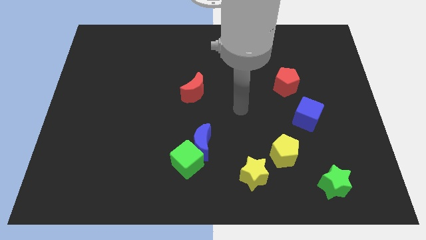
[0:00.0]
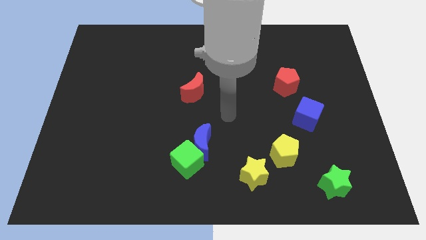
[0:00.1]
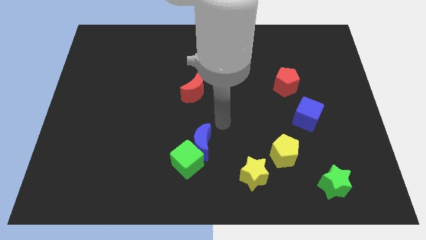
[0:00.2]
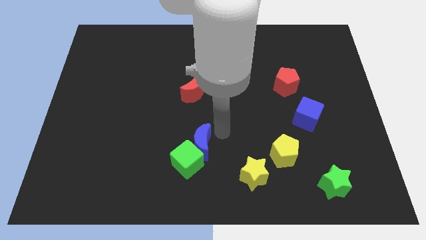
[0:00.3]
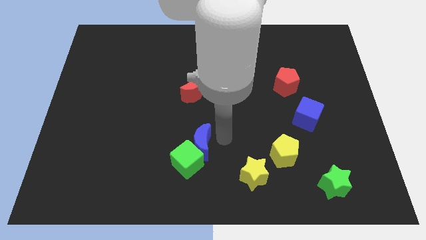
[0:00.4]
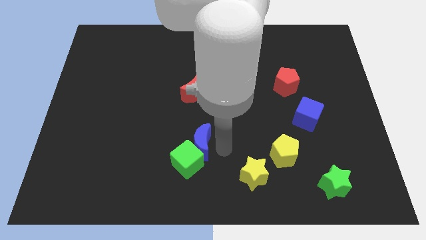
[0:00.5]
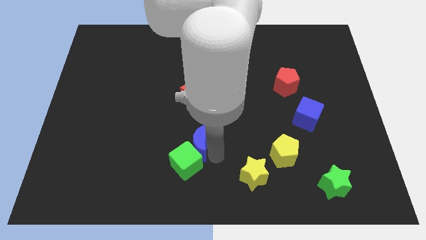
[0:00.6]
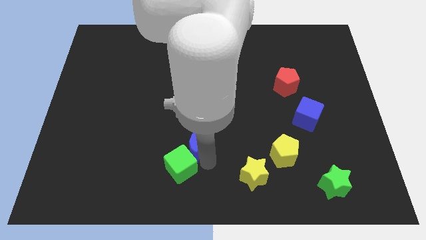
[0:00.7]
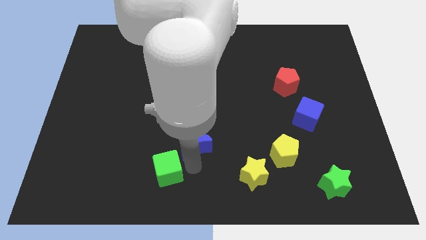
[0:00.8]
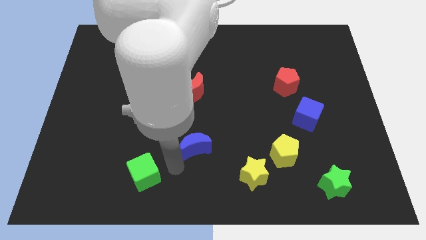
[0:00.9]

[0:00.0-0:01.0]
separate the blue moon from the green cube

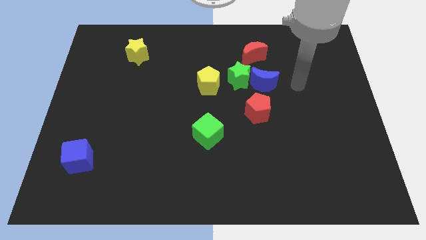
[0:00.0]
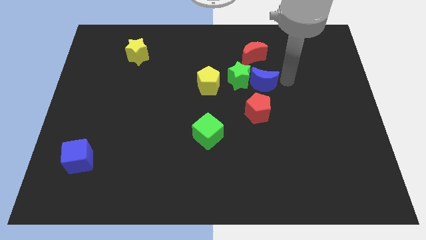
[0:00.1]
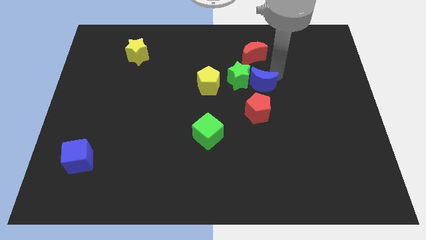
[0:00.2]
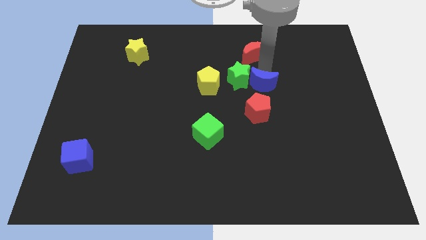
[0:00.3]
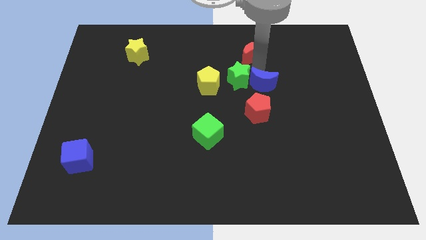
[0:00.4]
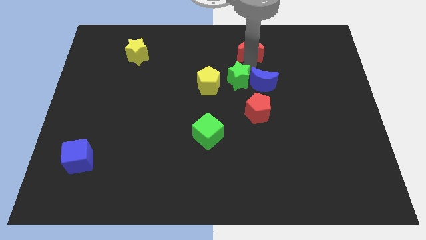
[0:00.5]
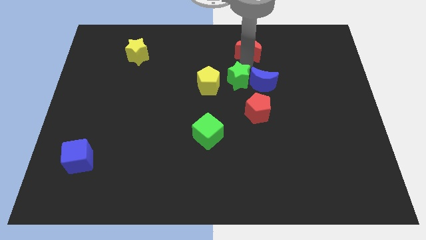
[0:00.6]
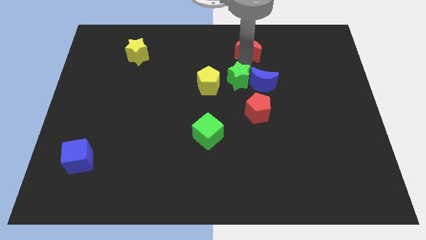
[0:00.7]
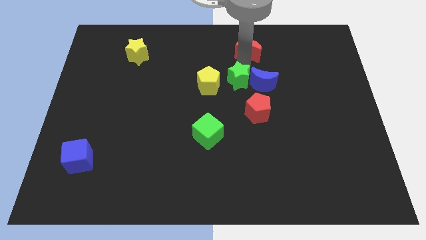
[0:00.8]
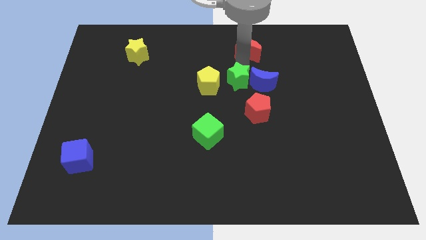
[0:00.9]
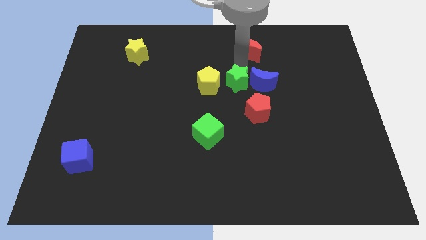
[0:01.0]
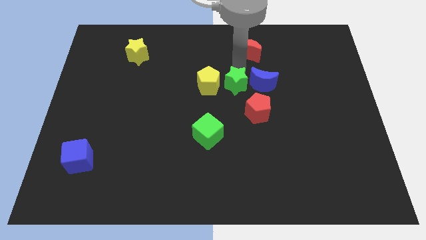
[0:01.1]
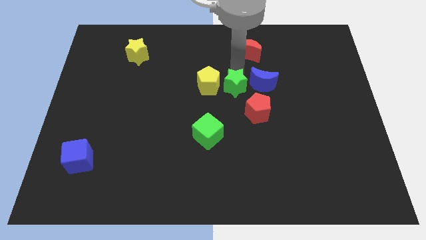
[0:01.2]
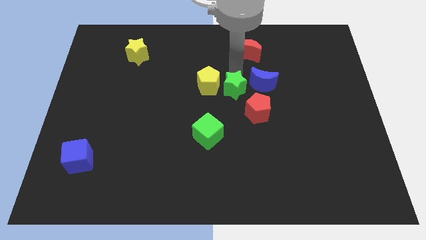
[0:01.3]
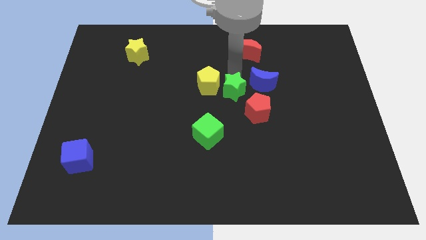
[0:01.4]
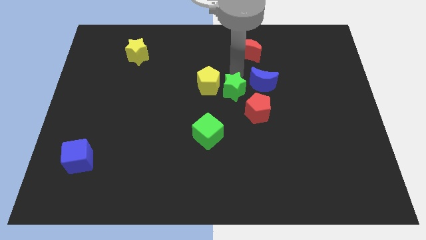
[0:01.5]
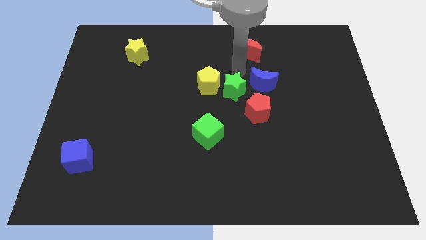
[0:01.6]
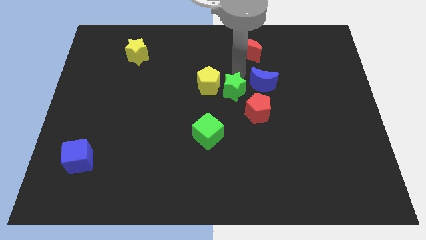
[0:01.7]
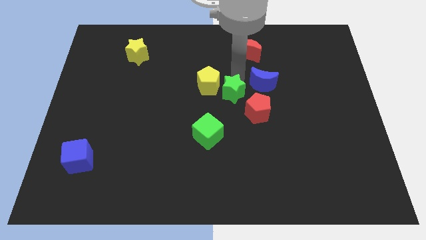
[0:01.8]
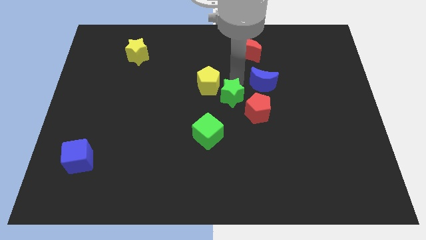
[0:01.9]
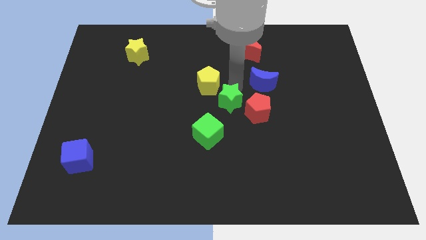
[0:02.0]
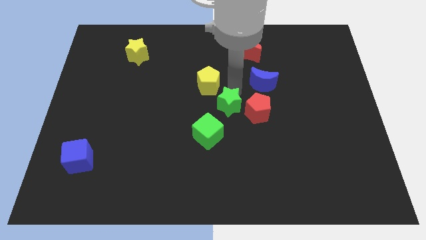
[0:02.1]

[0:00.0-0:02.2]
pull the green star apart from the blue moon, yellow pentagon, and red moon

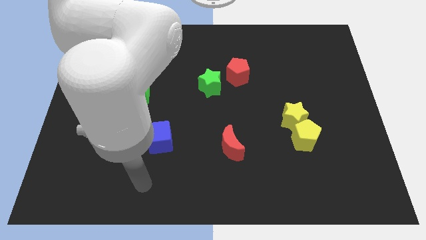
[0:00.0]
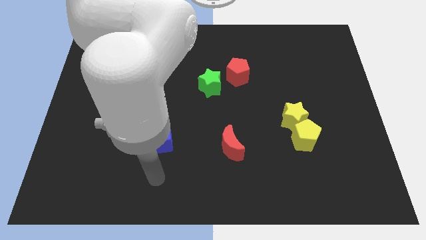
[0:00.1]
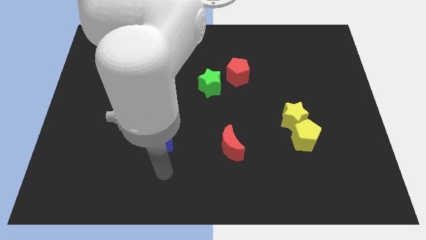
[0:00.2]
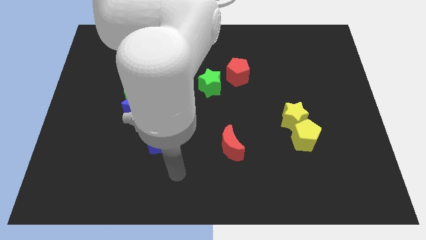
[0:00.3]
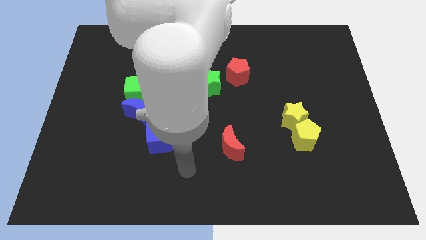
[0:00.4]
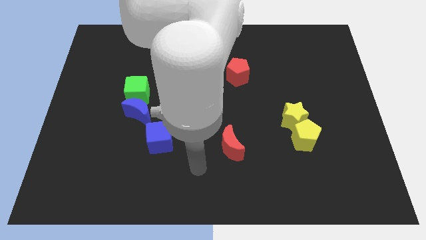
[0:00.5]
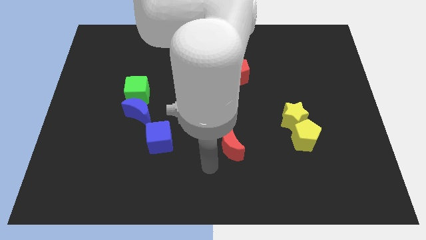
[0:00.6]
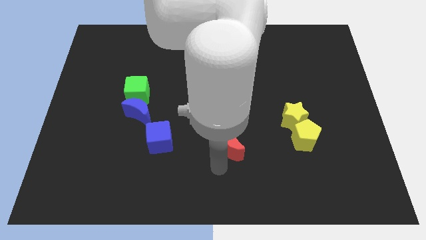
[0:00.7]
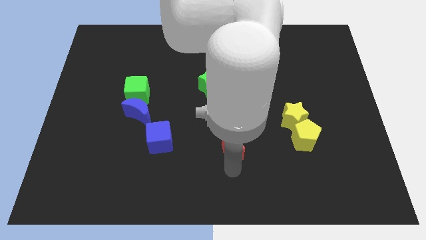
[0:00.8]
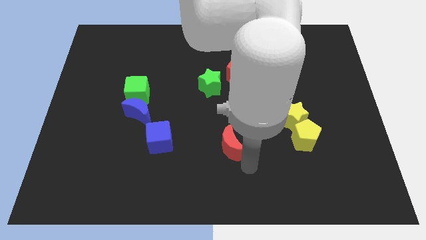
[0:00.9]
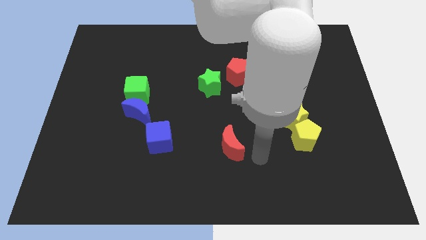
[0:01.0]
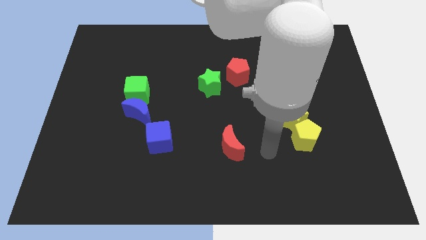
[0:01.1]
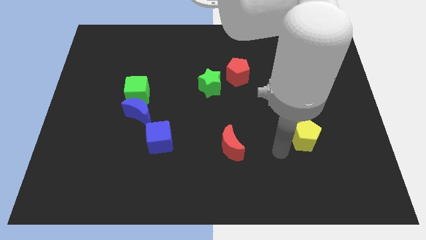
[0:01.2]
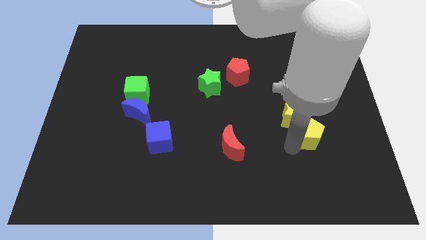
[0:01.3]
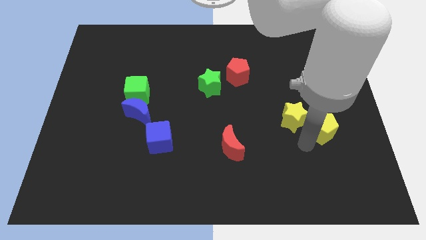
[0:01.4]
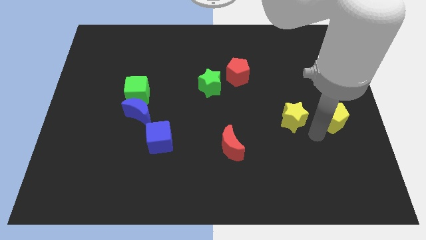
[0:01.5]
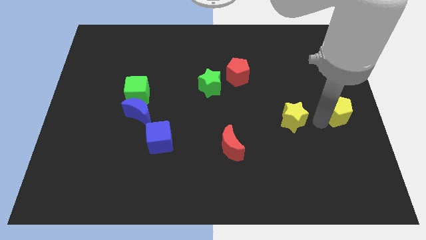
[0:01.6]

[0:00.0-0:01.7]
move the yellow star away from the yellow pentagon

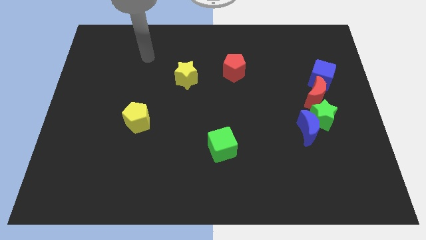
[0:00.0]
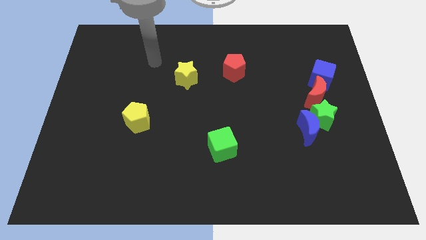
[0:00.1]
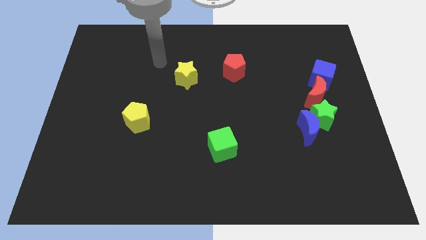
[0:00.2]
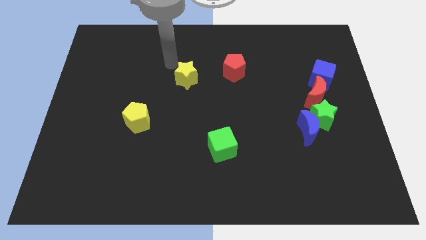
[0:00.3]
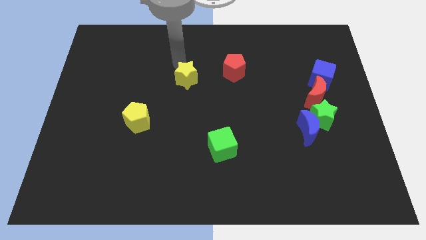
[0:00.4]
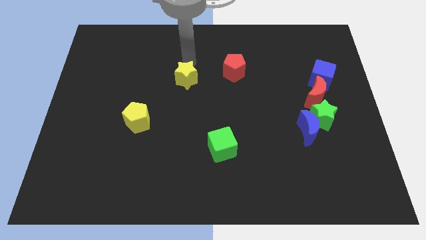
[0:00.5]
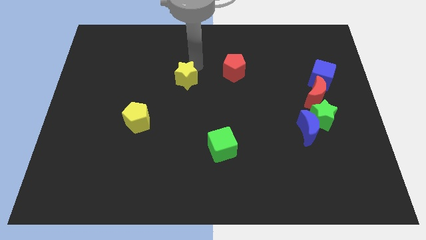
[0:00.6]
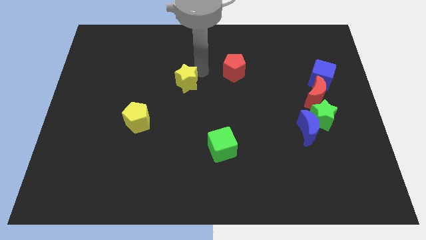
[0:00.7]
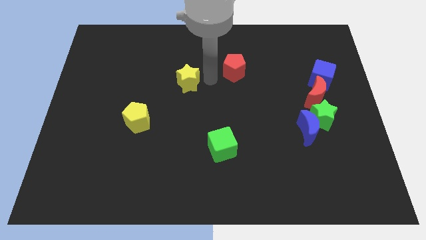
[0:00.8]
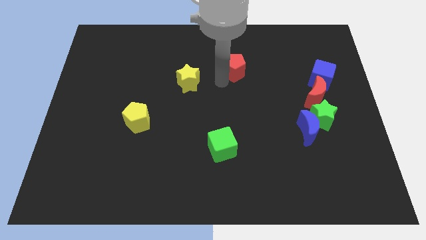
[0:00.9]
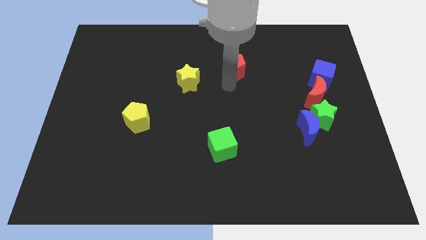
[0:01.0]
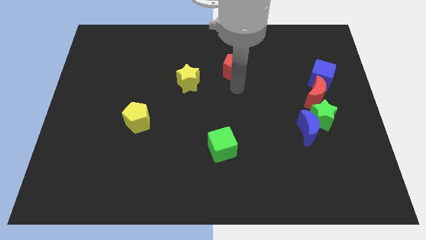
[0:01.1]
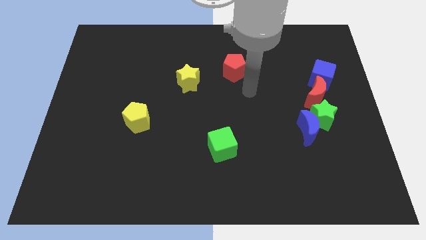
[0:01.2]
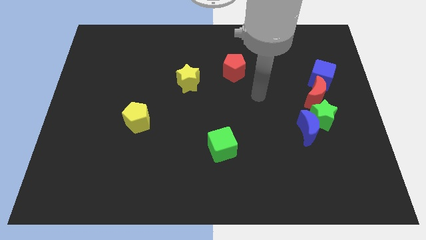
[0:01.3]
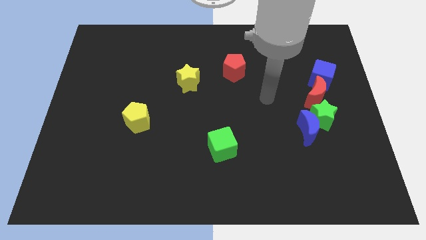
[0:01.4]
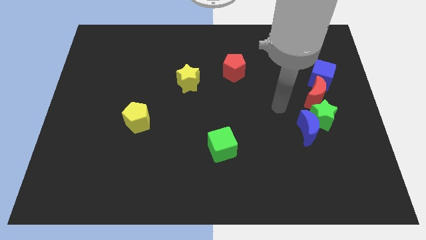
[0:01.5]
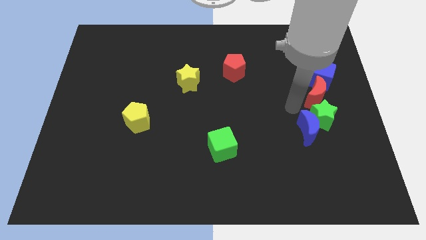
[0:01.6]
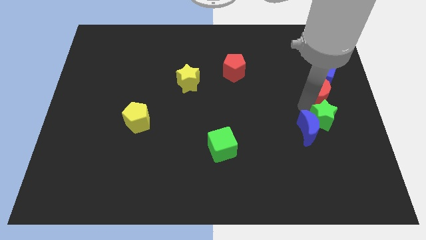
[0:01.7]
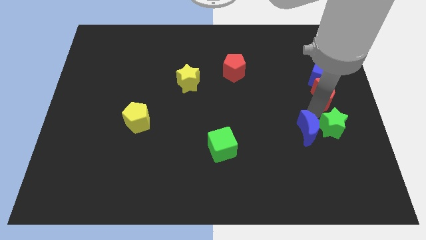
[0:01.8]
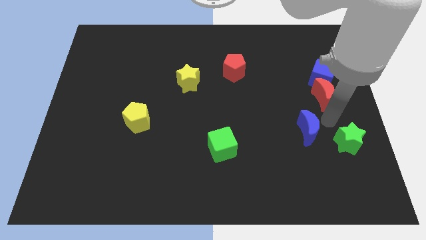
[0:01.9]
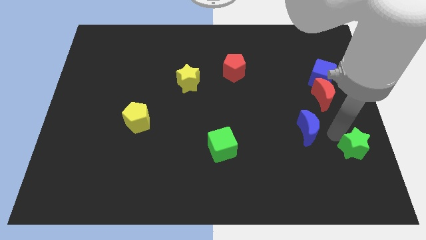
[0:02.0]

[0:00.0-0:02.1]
separate the blue moon from the green star

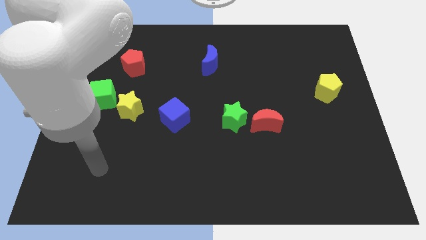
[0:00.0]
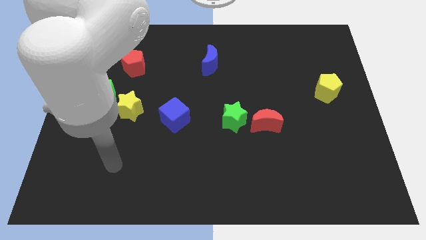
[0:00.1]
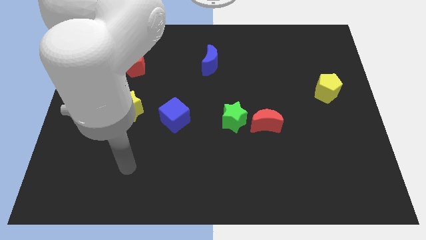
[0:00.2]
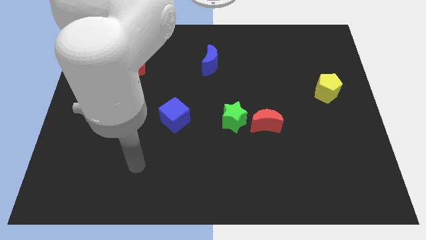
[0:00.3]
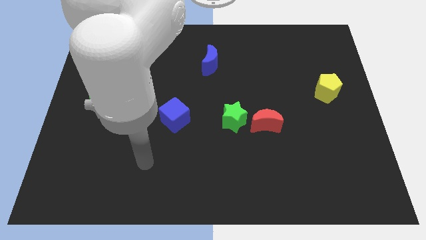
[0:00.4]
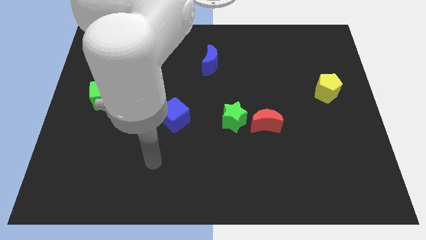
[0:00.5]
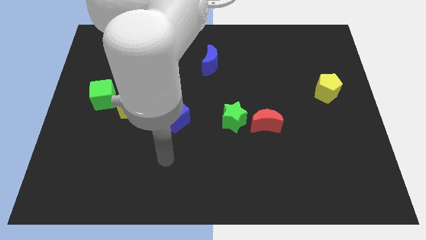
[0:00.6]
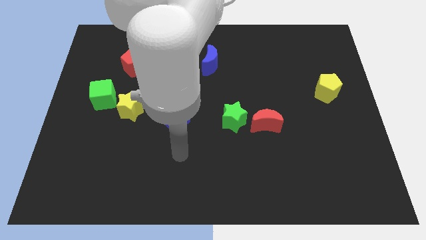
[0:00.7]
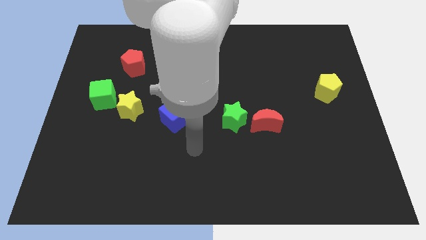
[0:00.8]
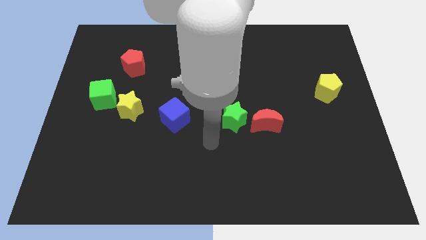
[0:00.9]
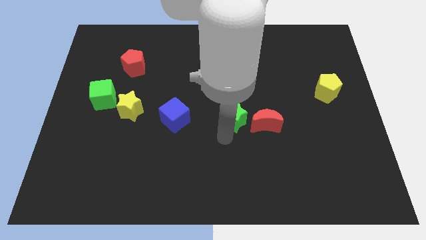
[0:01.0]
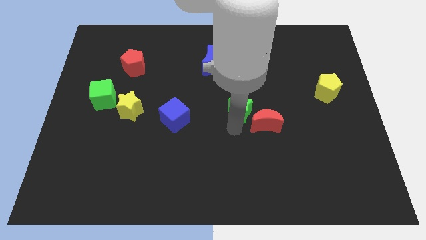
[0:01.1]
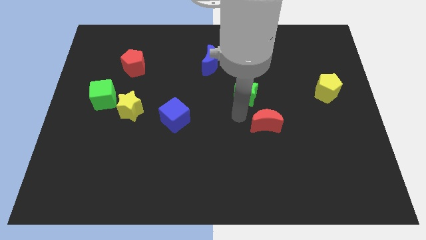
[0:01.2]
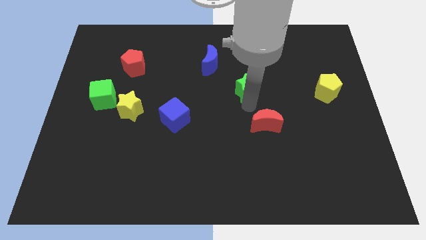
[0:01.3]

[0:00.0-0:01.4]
move the red moon away from the green star

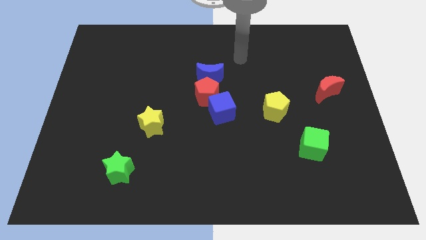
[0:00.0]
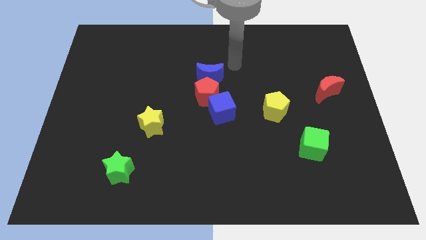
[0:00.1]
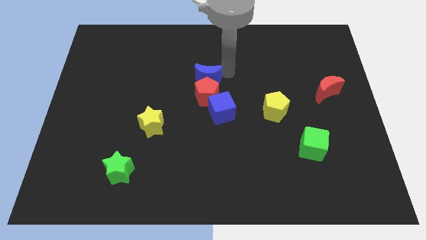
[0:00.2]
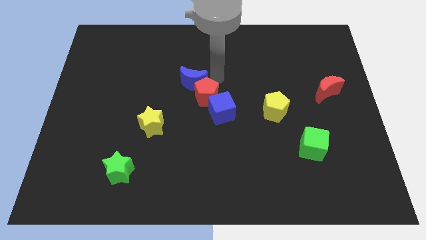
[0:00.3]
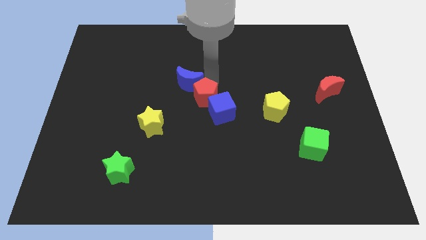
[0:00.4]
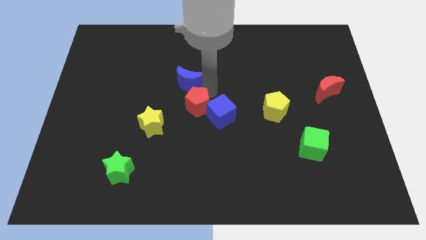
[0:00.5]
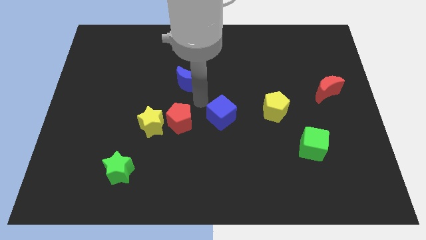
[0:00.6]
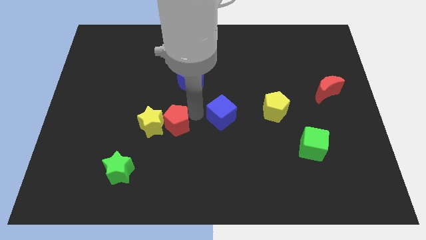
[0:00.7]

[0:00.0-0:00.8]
separate the blue cube from the red pentagon
